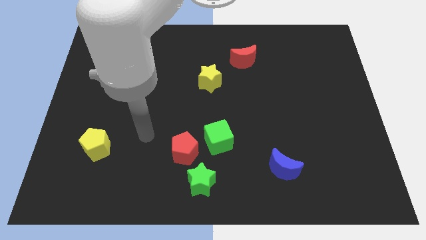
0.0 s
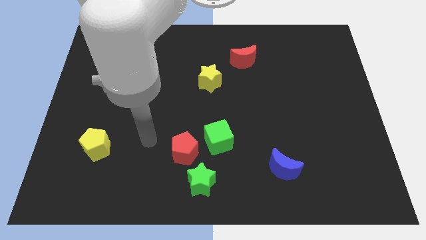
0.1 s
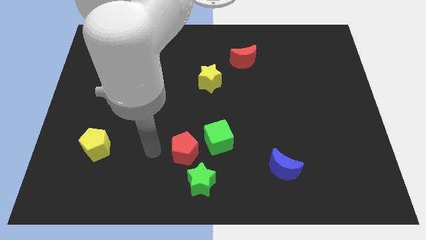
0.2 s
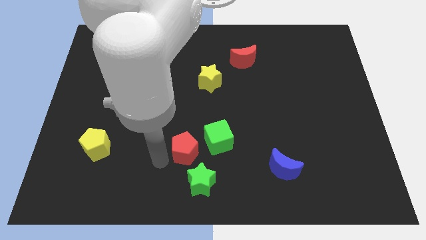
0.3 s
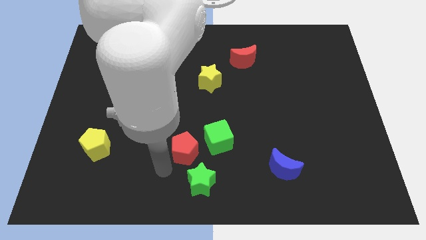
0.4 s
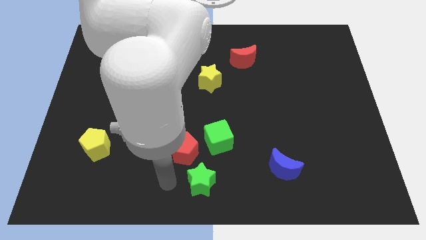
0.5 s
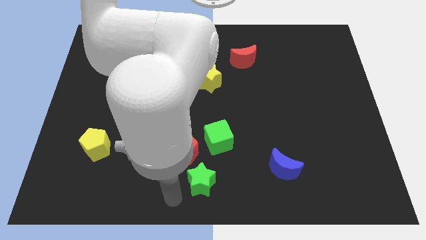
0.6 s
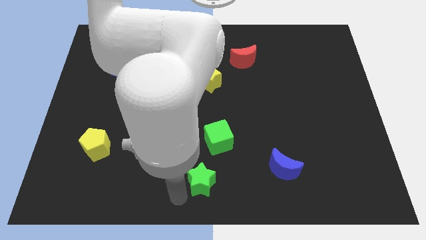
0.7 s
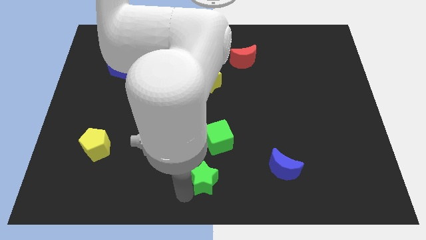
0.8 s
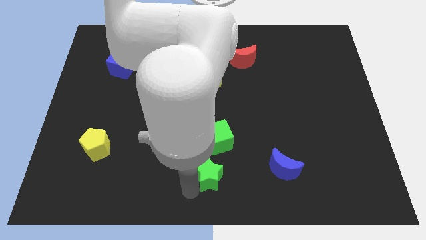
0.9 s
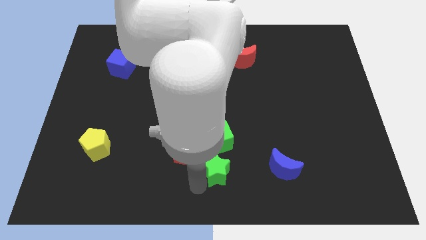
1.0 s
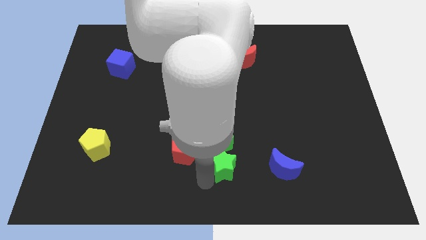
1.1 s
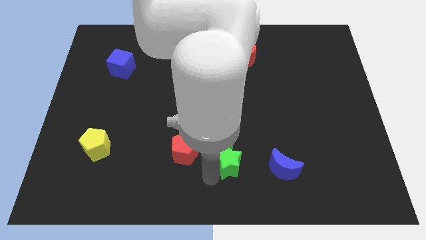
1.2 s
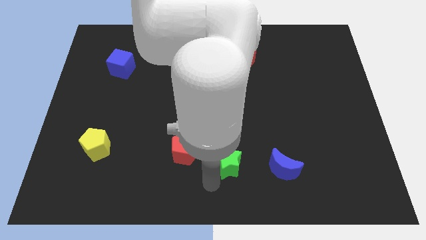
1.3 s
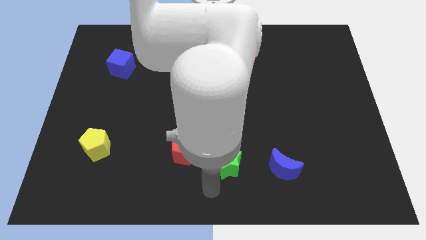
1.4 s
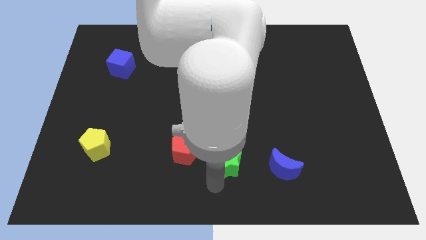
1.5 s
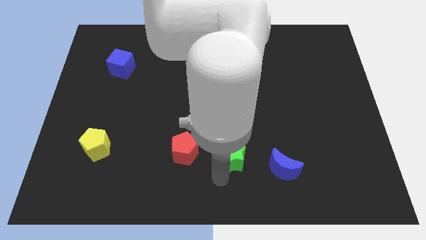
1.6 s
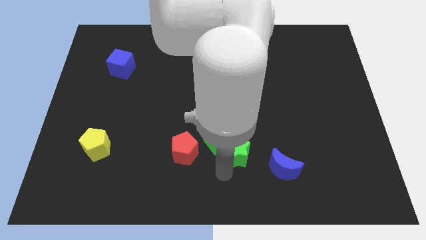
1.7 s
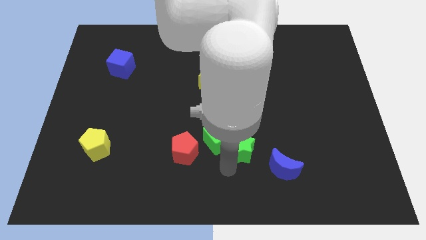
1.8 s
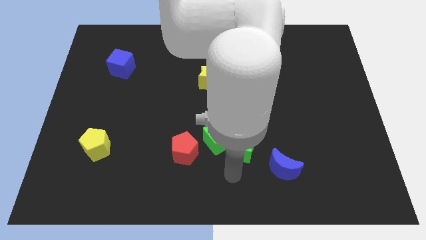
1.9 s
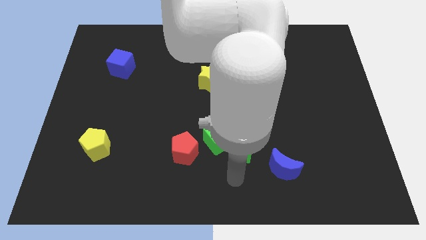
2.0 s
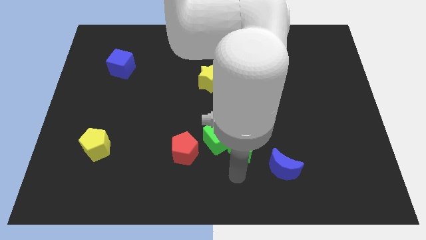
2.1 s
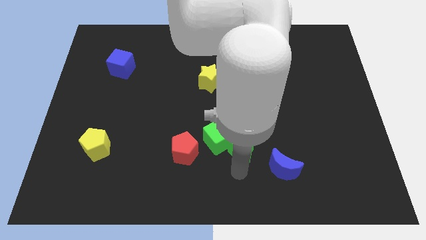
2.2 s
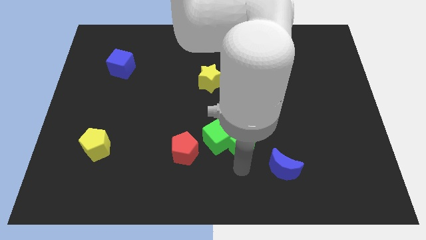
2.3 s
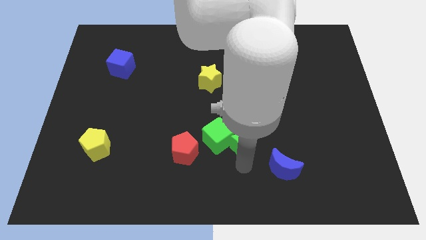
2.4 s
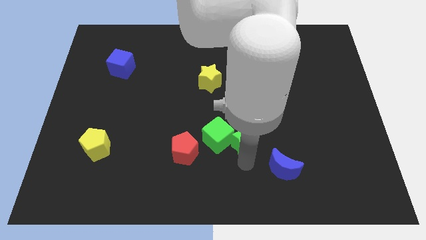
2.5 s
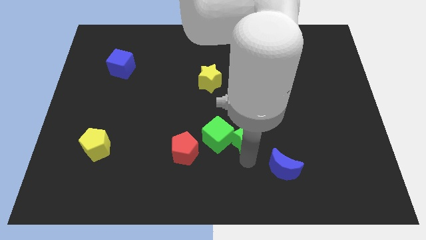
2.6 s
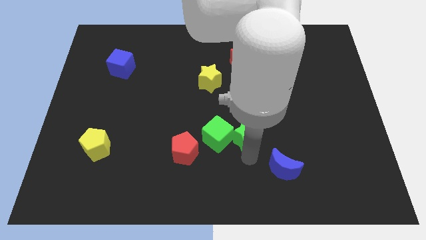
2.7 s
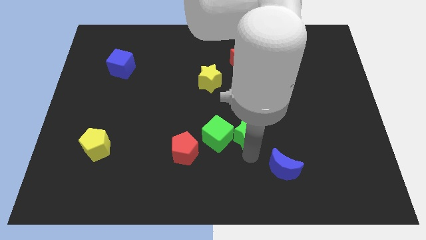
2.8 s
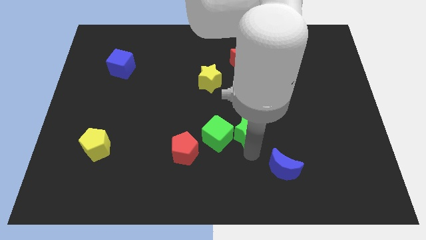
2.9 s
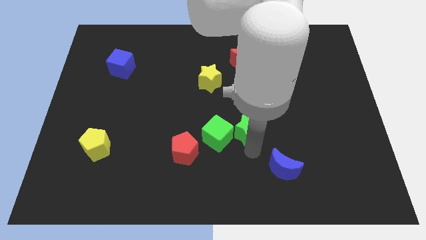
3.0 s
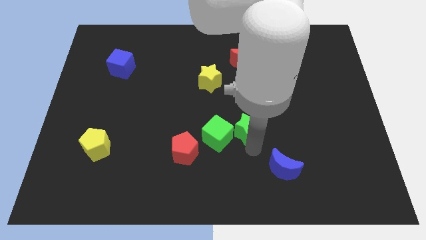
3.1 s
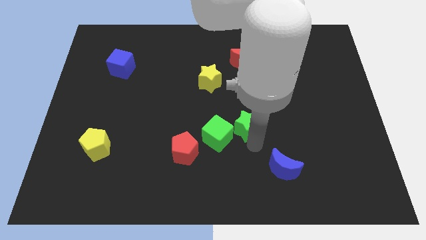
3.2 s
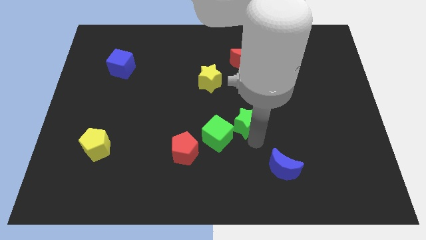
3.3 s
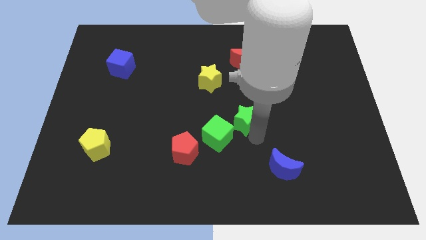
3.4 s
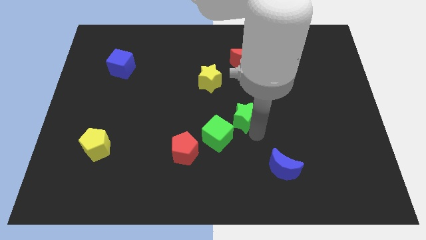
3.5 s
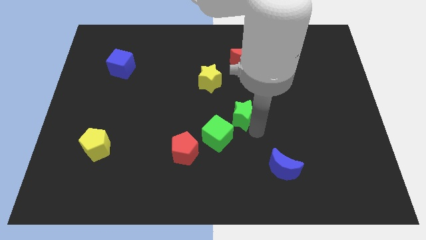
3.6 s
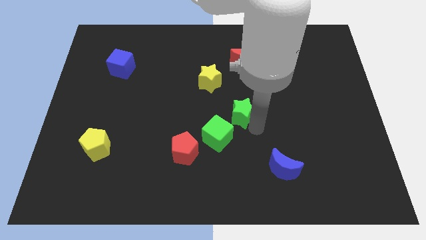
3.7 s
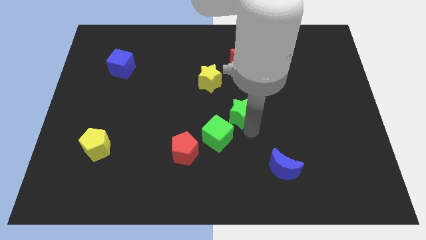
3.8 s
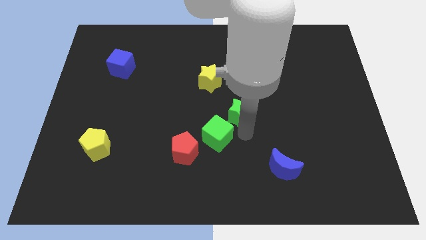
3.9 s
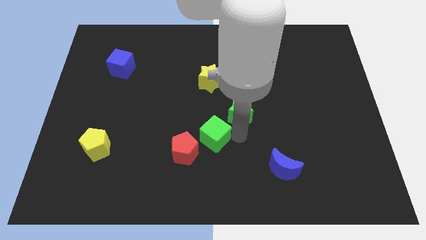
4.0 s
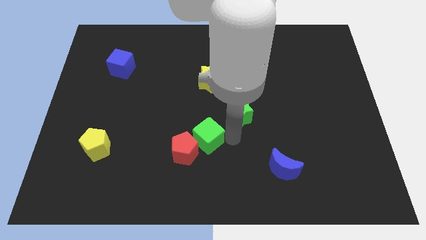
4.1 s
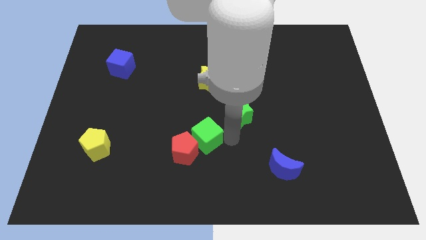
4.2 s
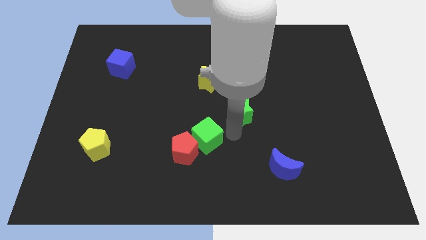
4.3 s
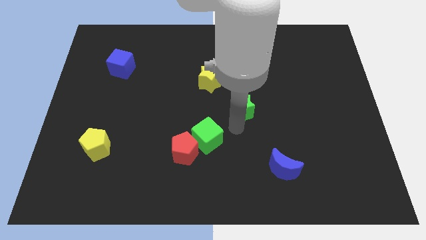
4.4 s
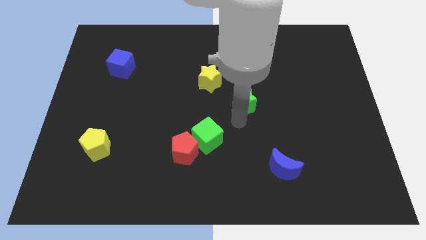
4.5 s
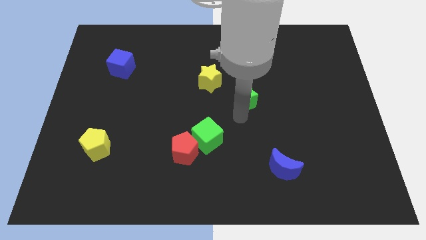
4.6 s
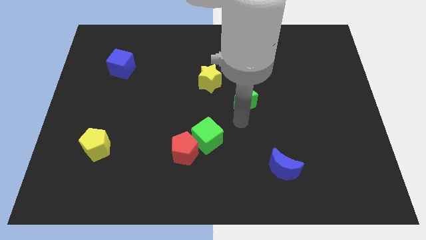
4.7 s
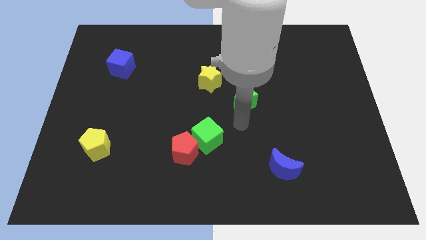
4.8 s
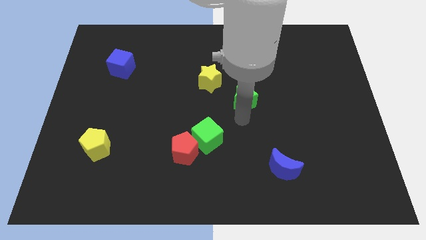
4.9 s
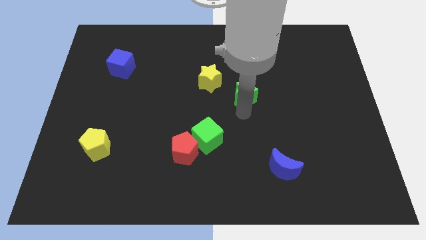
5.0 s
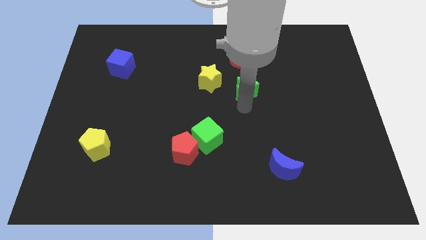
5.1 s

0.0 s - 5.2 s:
move the green star right of the yellow star

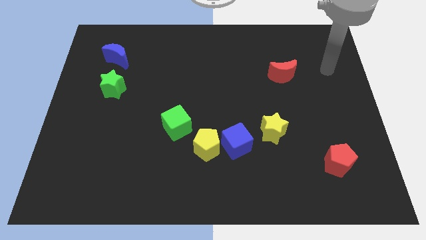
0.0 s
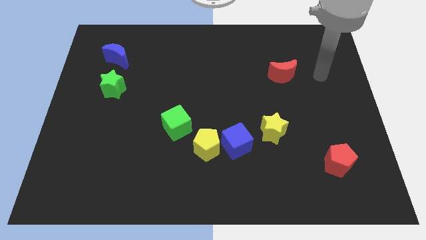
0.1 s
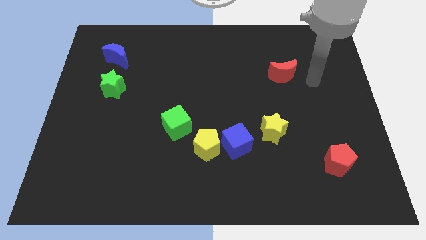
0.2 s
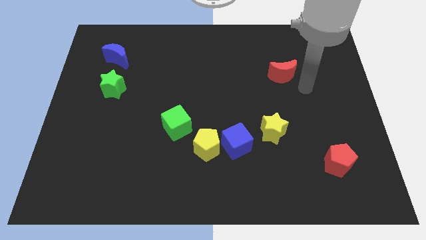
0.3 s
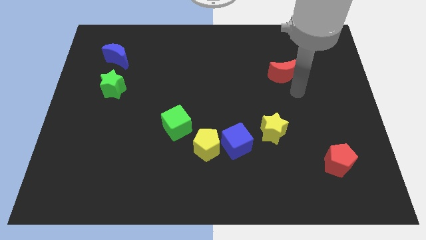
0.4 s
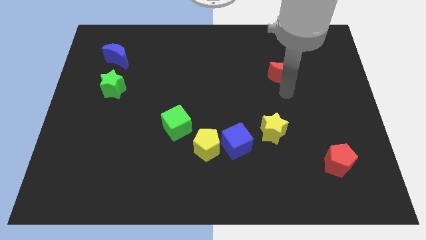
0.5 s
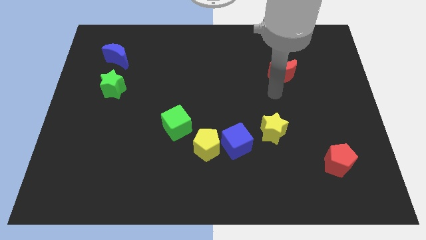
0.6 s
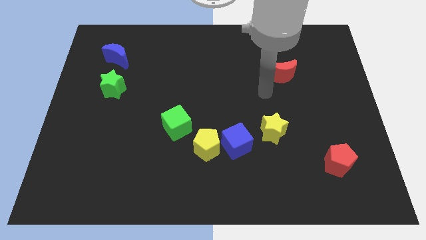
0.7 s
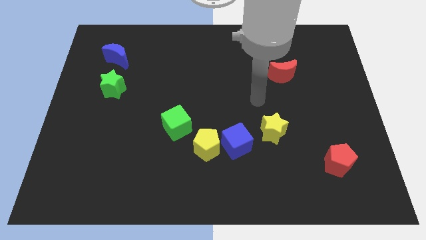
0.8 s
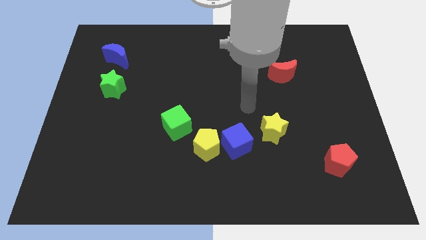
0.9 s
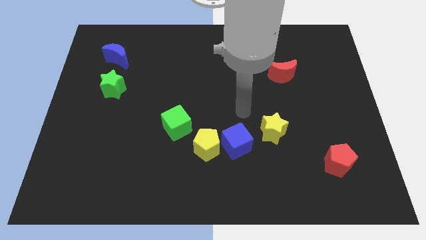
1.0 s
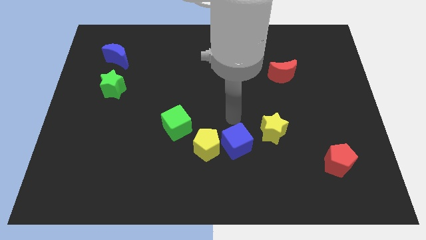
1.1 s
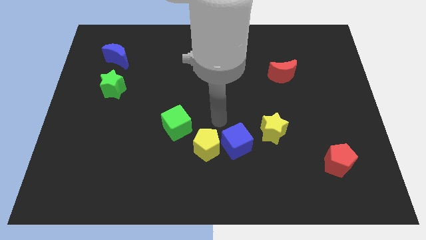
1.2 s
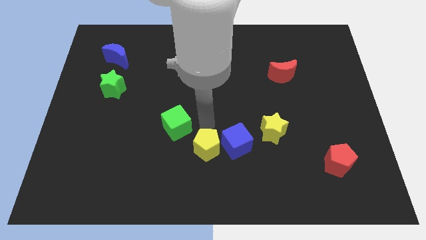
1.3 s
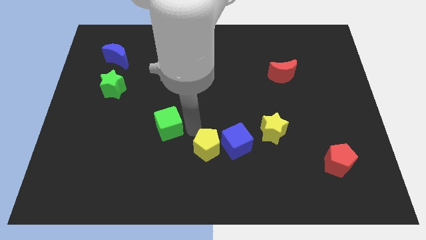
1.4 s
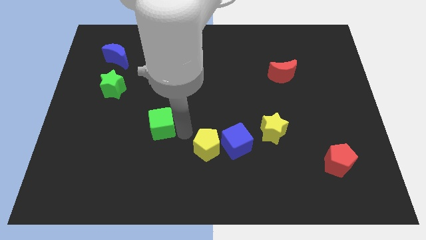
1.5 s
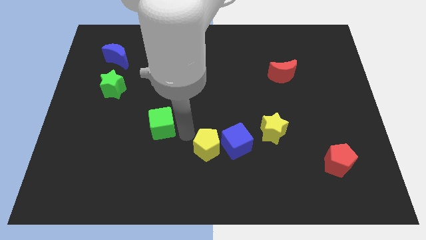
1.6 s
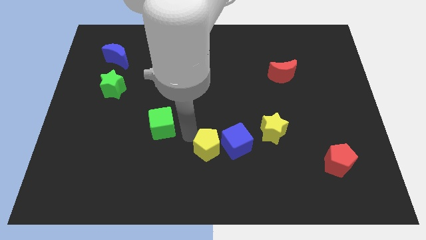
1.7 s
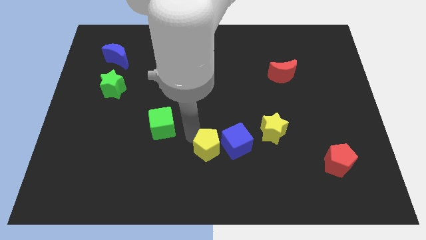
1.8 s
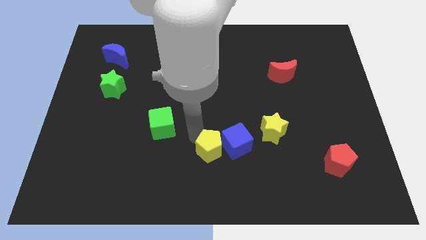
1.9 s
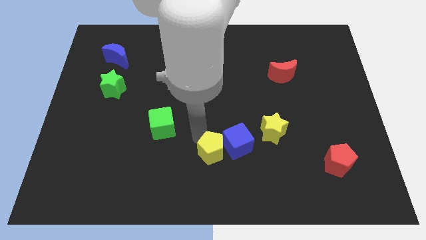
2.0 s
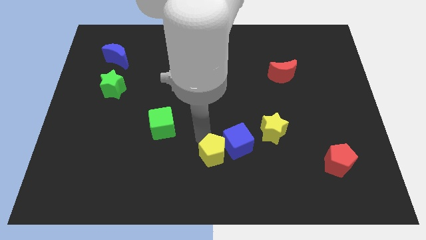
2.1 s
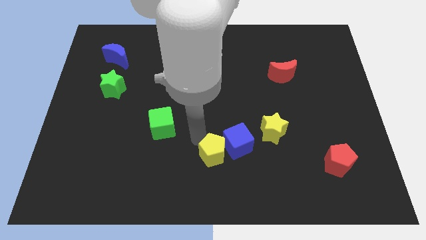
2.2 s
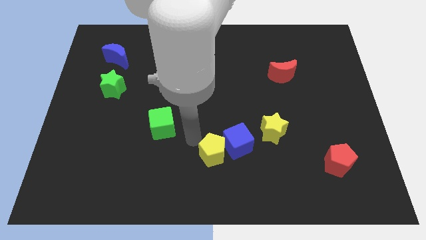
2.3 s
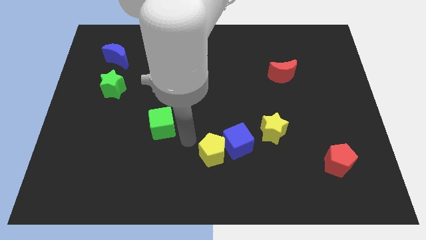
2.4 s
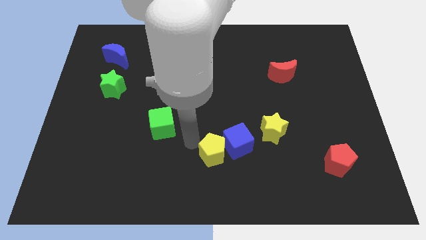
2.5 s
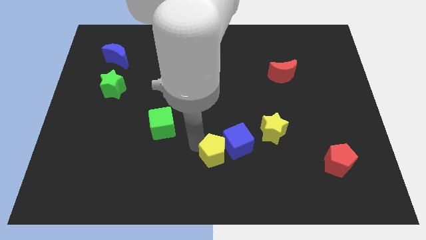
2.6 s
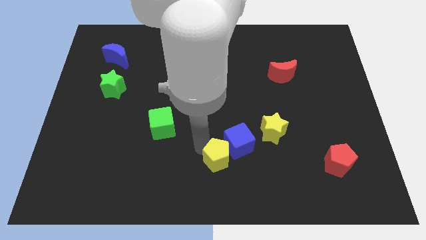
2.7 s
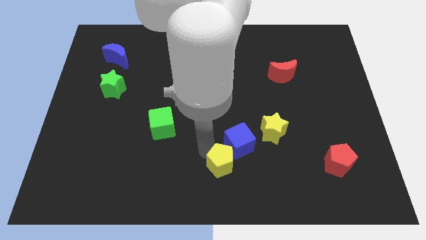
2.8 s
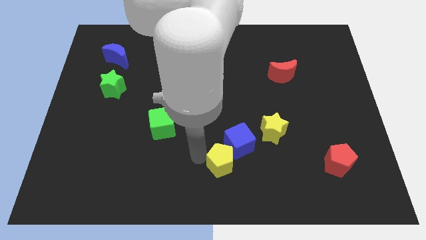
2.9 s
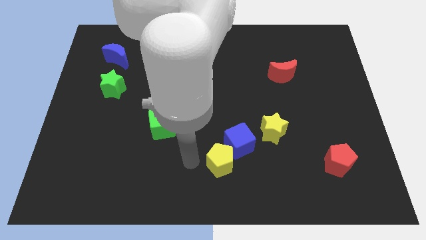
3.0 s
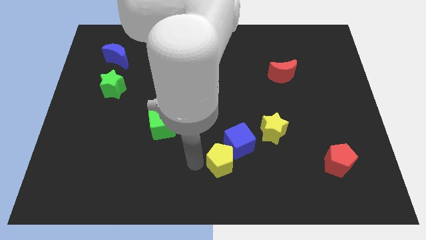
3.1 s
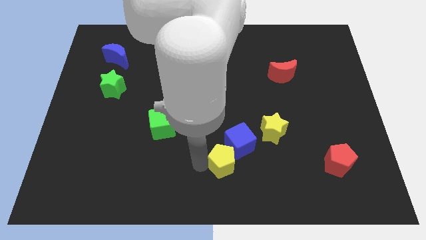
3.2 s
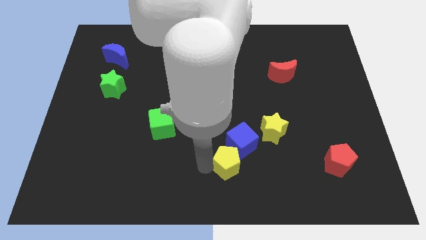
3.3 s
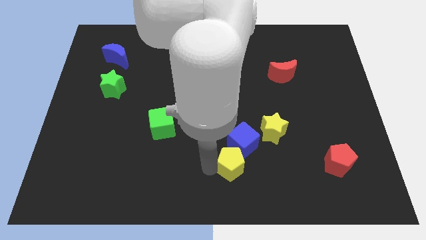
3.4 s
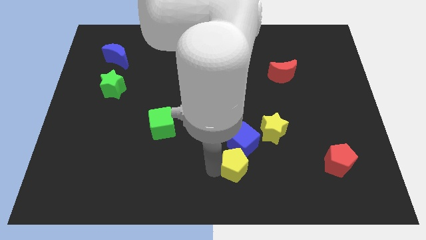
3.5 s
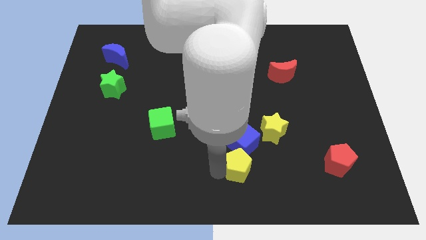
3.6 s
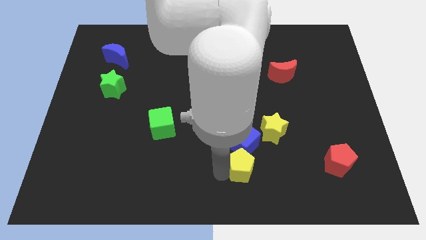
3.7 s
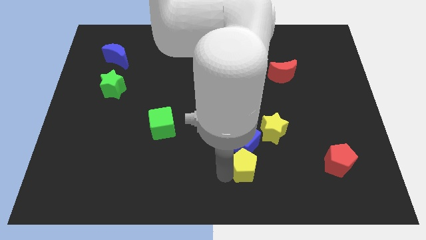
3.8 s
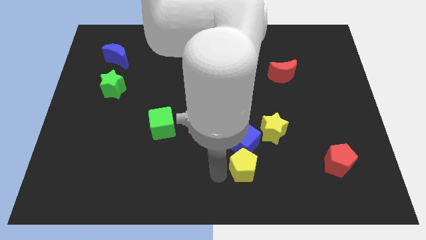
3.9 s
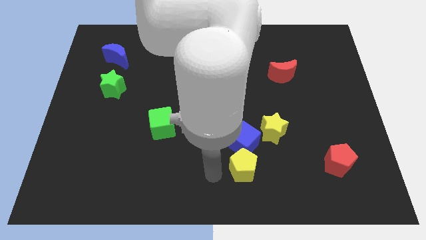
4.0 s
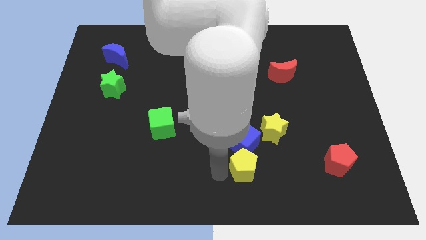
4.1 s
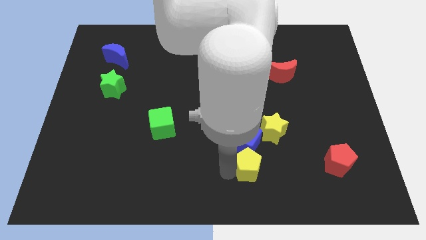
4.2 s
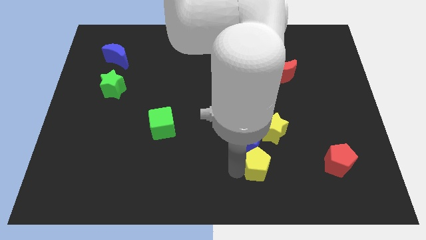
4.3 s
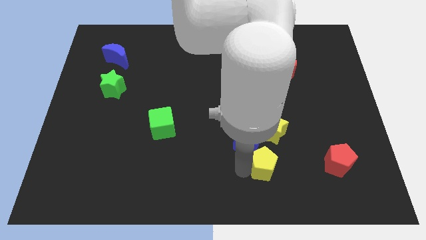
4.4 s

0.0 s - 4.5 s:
push the yellow pentagon just left of the red pentagon
